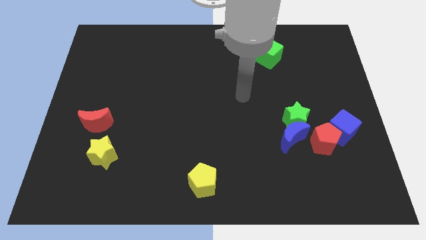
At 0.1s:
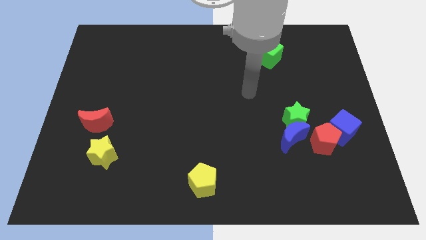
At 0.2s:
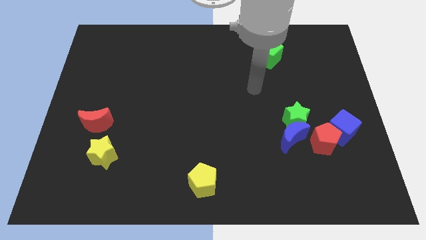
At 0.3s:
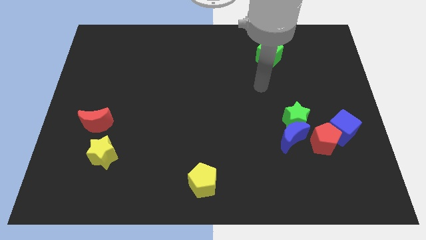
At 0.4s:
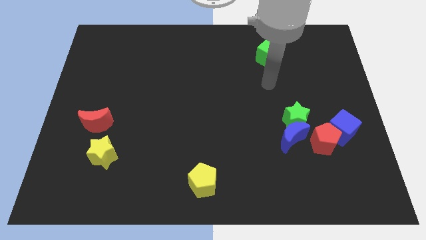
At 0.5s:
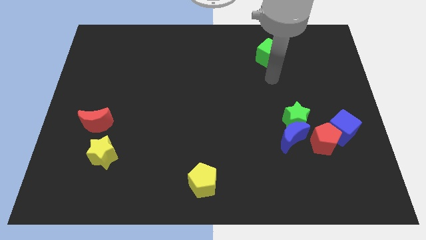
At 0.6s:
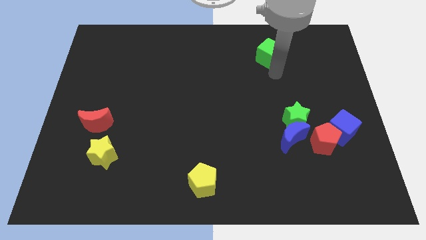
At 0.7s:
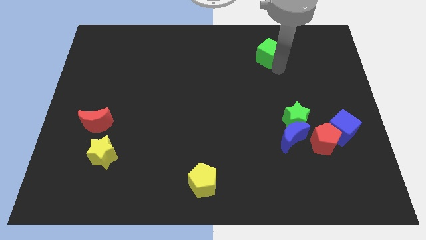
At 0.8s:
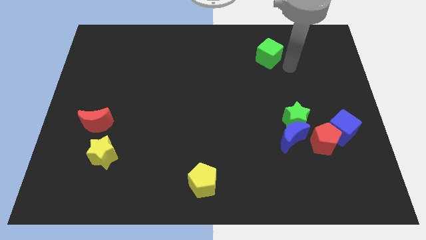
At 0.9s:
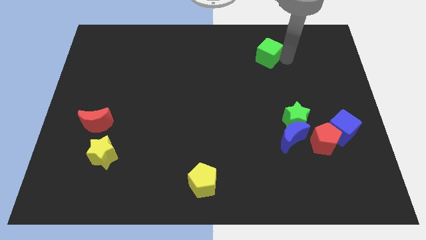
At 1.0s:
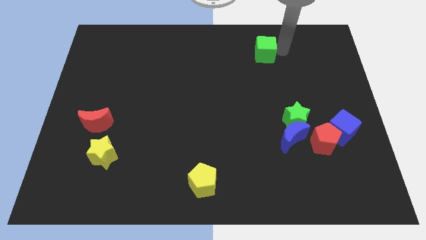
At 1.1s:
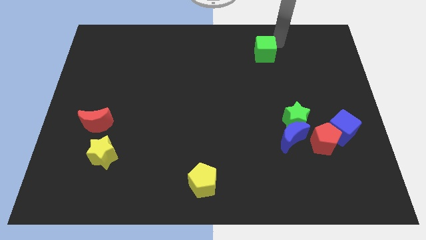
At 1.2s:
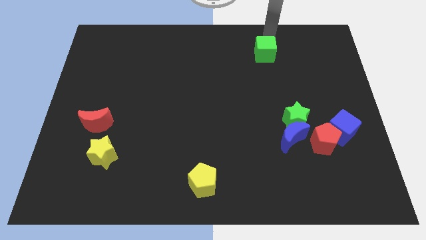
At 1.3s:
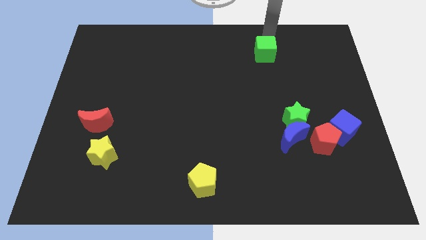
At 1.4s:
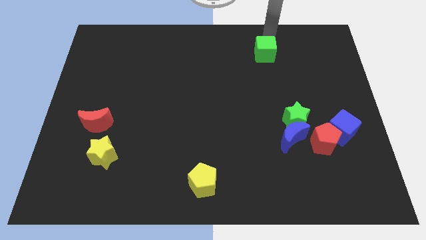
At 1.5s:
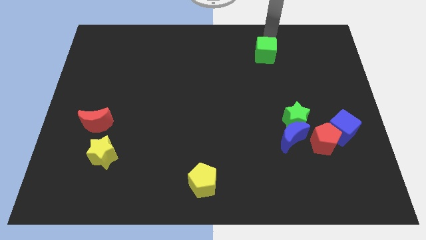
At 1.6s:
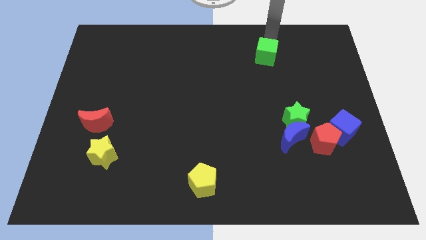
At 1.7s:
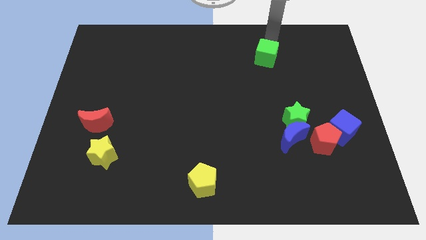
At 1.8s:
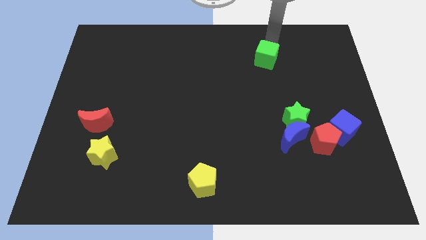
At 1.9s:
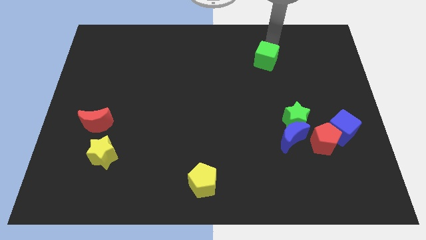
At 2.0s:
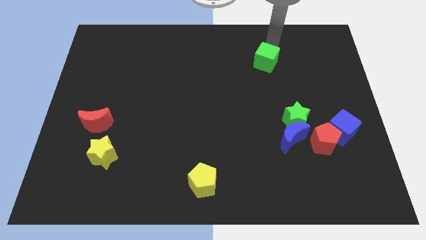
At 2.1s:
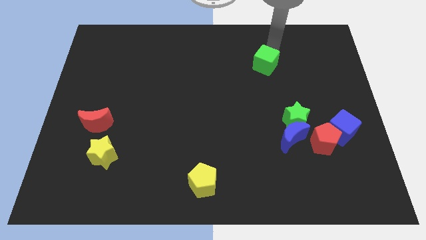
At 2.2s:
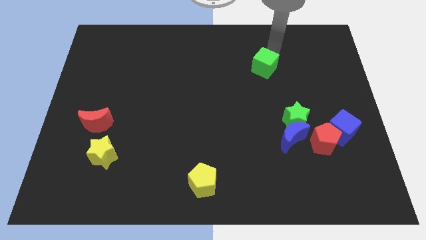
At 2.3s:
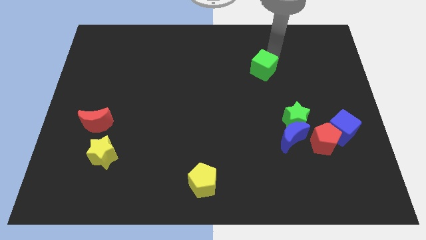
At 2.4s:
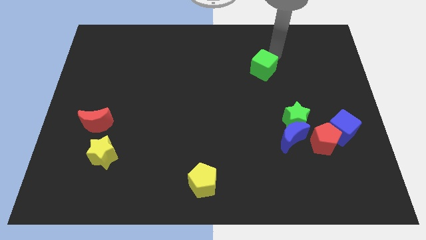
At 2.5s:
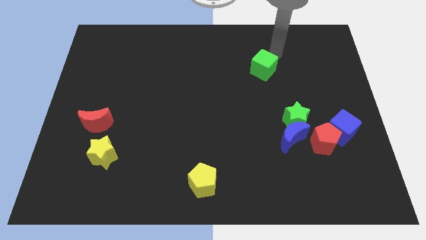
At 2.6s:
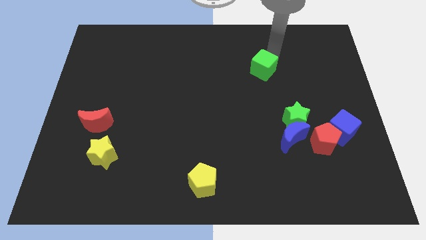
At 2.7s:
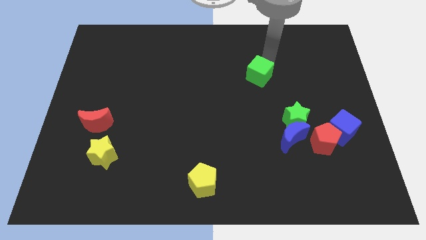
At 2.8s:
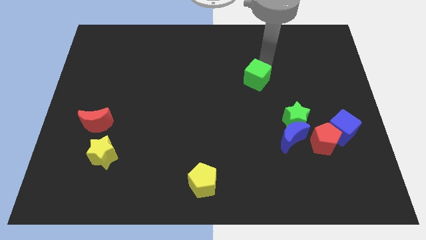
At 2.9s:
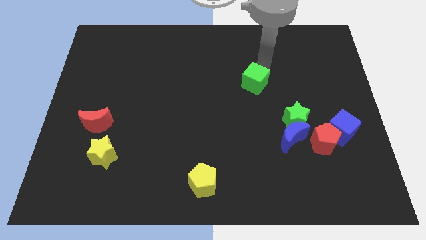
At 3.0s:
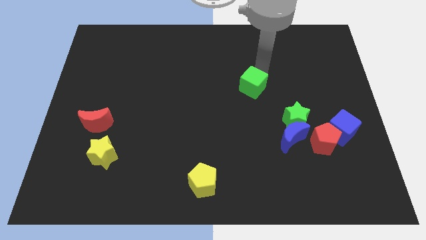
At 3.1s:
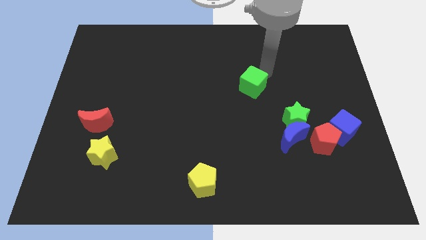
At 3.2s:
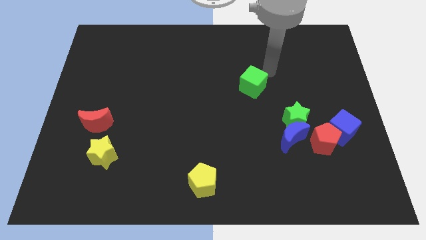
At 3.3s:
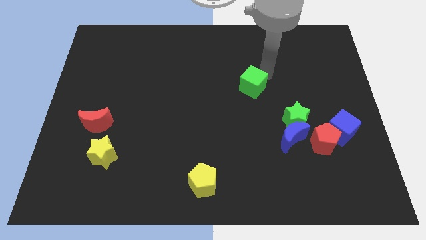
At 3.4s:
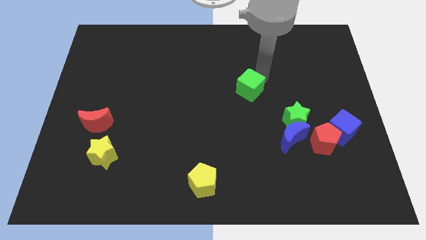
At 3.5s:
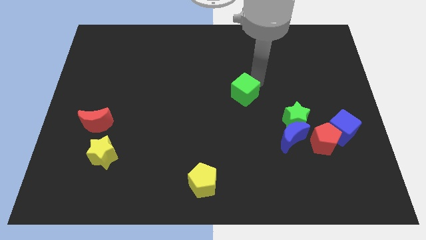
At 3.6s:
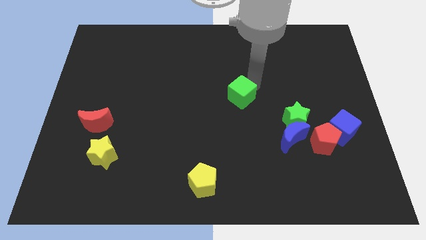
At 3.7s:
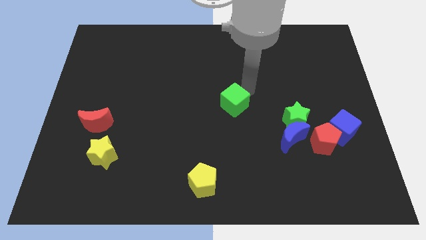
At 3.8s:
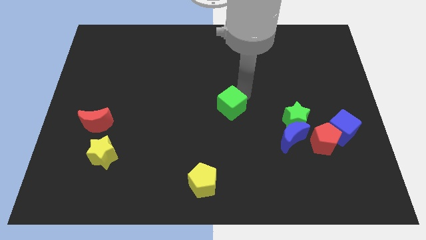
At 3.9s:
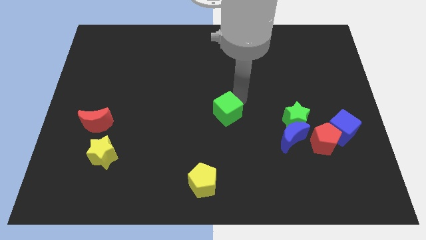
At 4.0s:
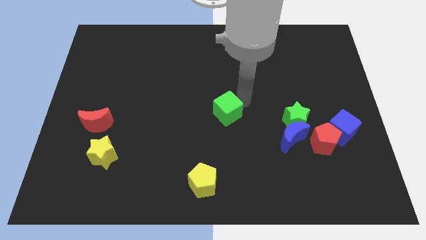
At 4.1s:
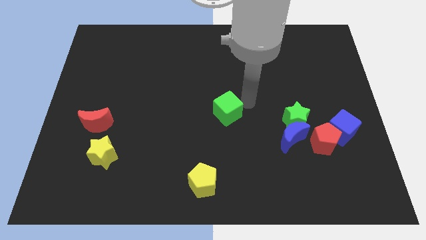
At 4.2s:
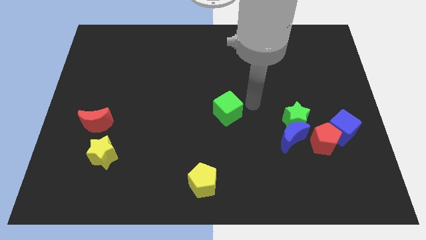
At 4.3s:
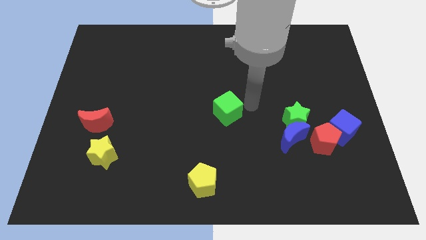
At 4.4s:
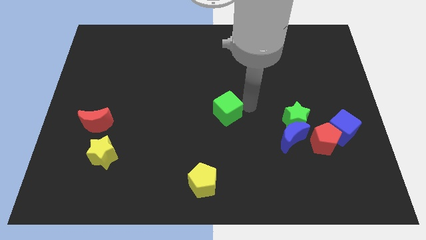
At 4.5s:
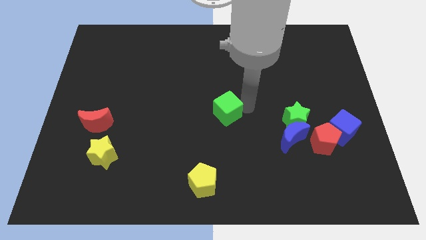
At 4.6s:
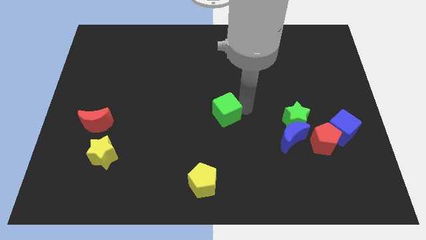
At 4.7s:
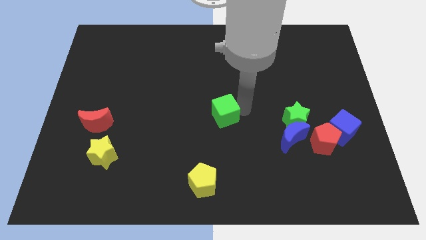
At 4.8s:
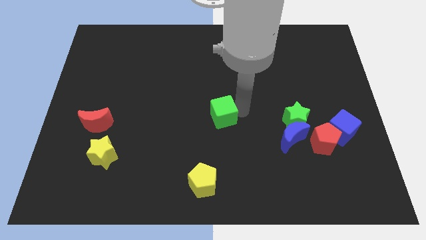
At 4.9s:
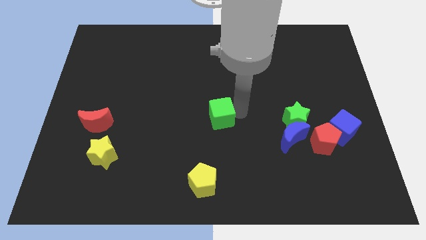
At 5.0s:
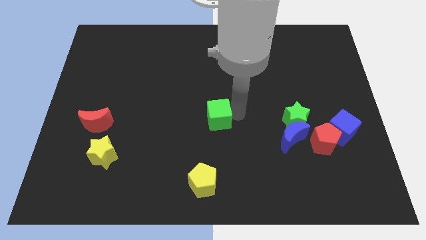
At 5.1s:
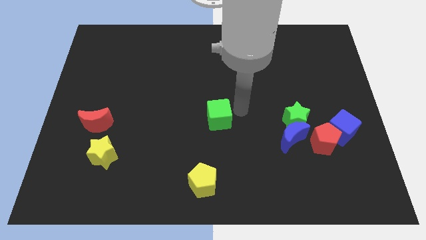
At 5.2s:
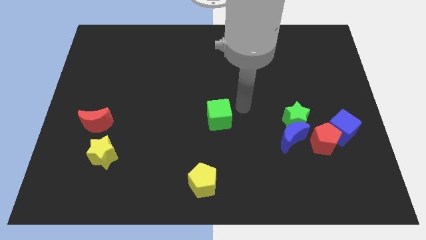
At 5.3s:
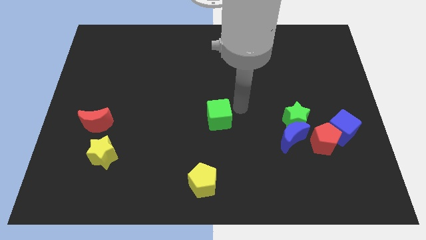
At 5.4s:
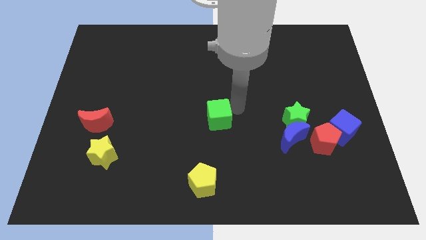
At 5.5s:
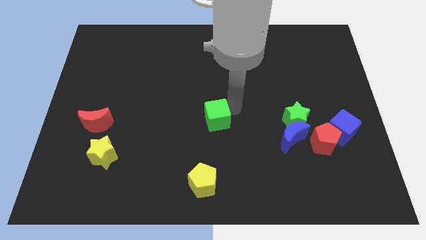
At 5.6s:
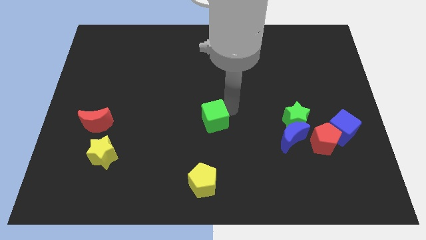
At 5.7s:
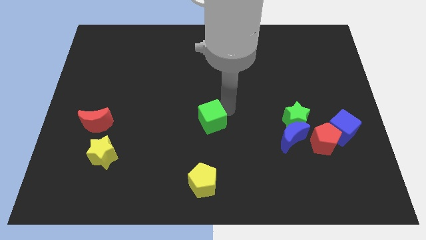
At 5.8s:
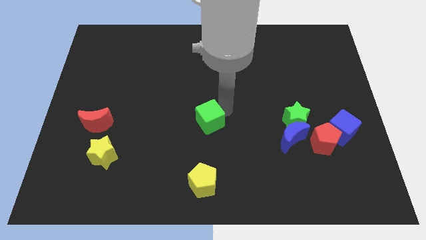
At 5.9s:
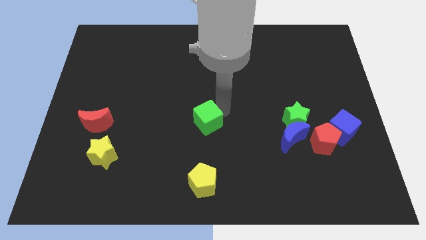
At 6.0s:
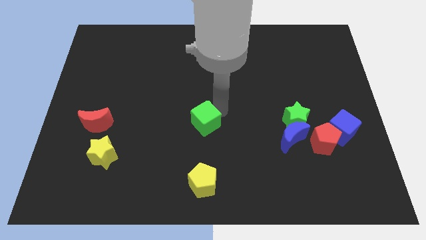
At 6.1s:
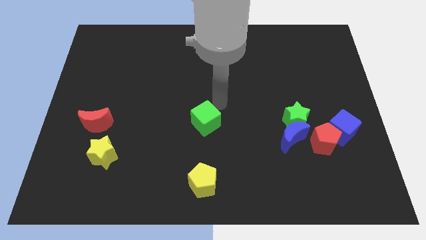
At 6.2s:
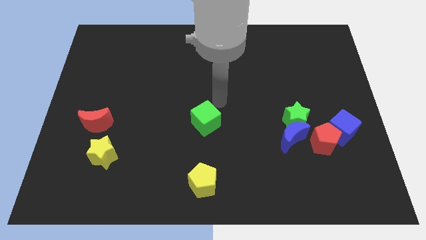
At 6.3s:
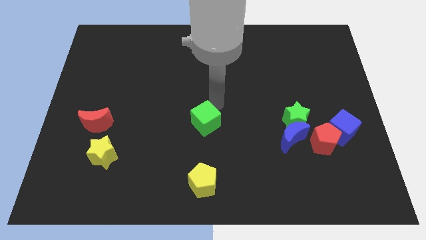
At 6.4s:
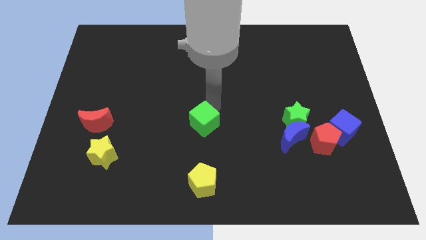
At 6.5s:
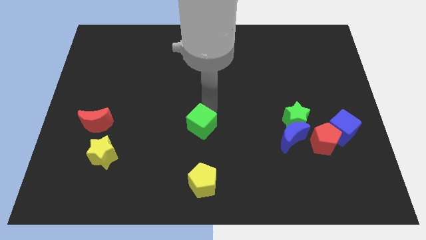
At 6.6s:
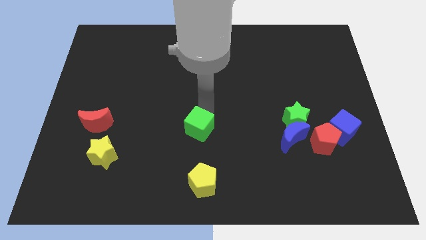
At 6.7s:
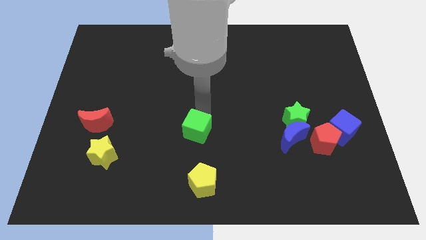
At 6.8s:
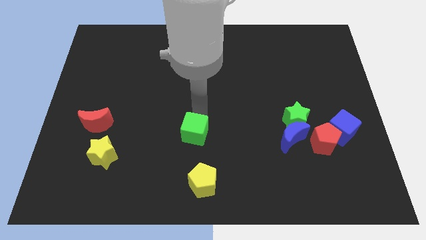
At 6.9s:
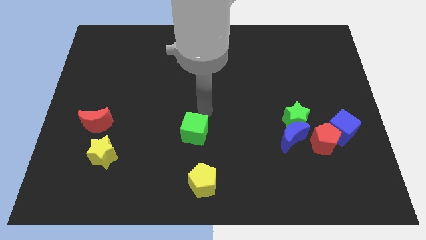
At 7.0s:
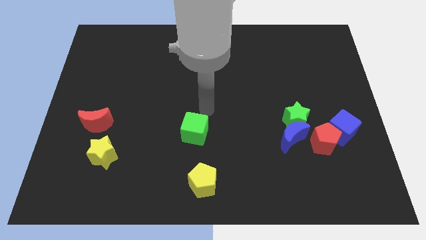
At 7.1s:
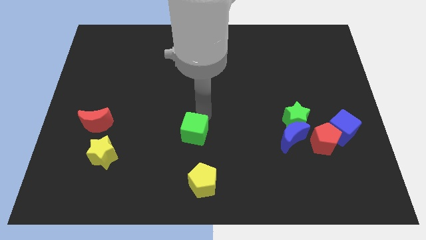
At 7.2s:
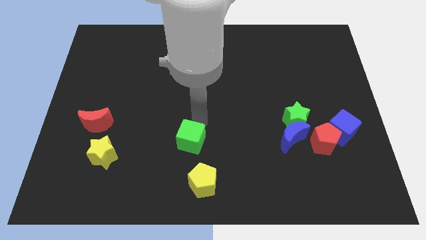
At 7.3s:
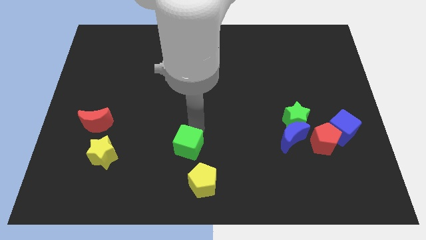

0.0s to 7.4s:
put the green cube to the top left of the yellow pentagon

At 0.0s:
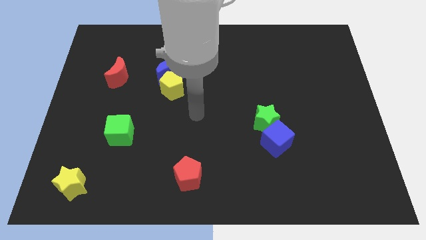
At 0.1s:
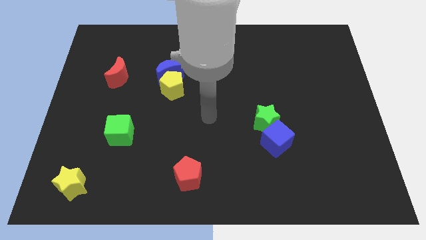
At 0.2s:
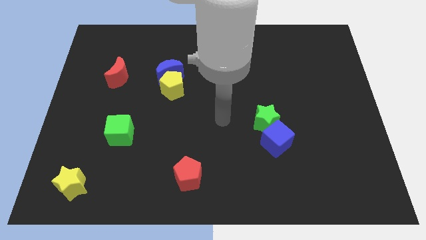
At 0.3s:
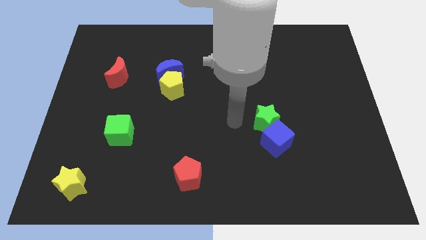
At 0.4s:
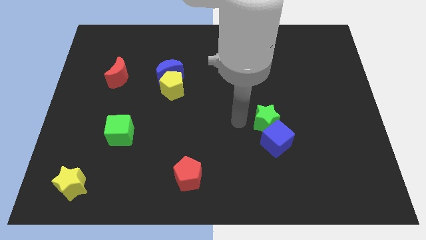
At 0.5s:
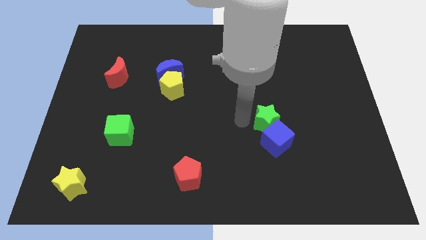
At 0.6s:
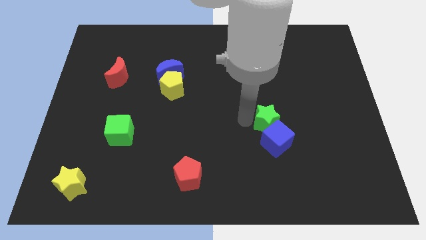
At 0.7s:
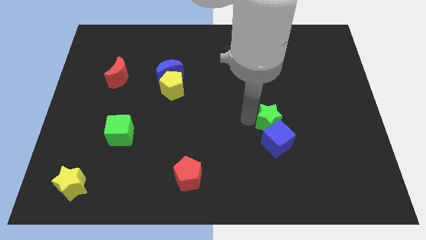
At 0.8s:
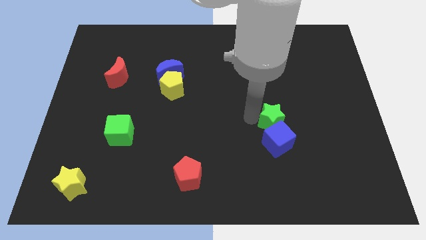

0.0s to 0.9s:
push the green star diagonally up and to the right of the blue cube
